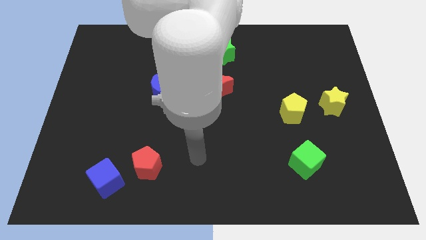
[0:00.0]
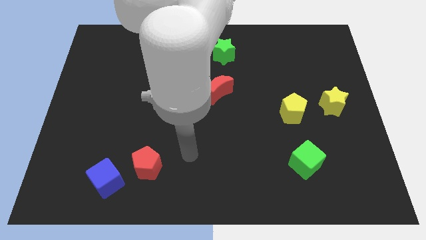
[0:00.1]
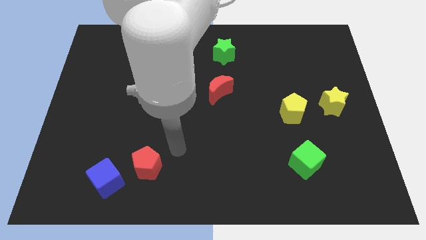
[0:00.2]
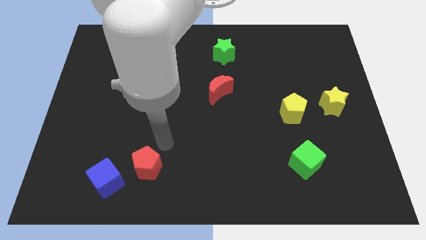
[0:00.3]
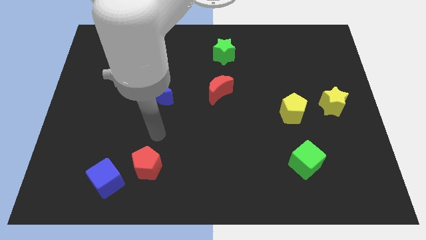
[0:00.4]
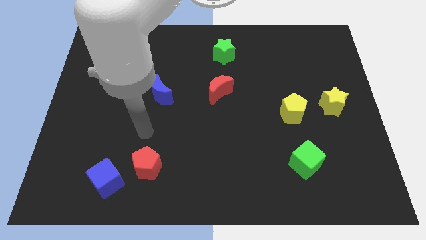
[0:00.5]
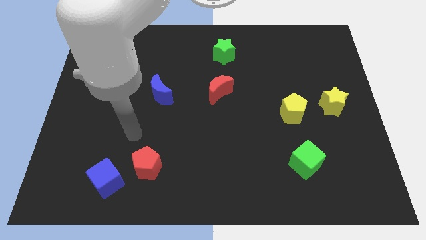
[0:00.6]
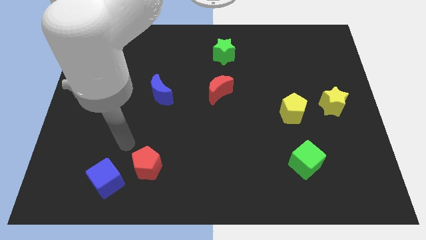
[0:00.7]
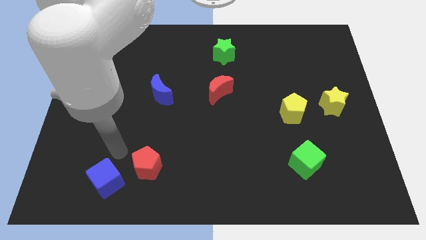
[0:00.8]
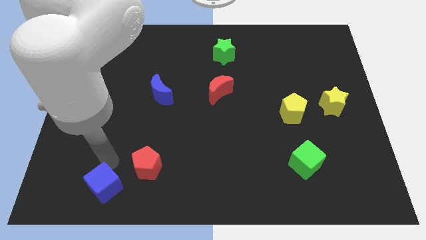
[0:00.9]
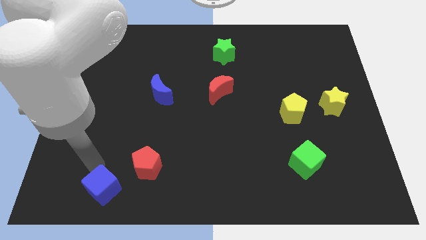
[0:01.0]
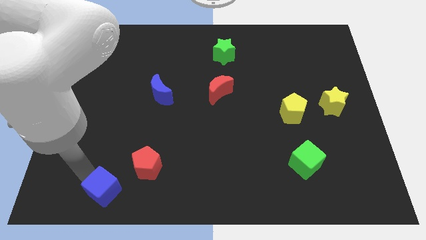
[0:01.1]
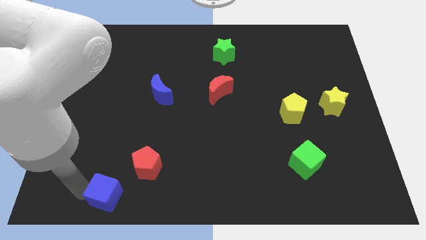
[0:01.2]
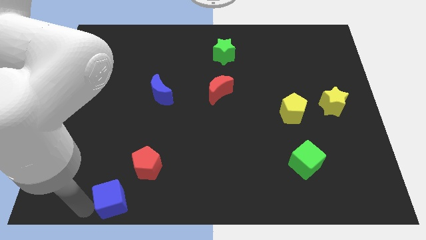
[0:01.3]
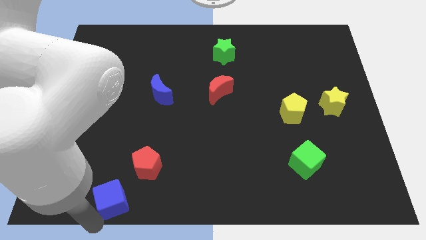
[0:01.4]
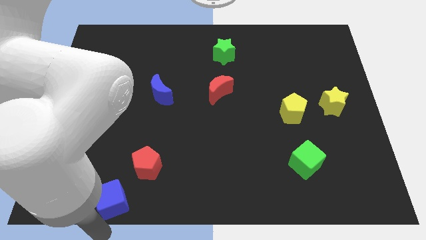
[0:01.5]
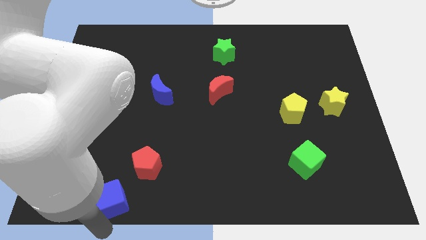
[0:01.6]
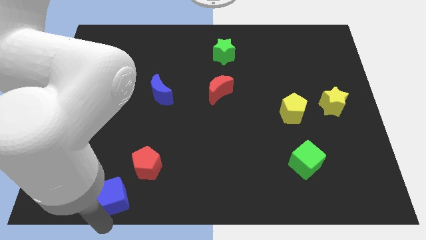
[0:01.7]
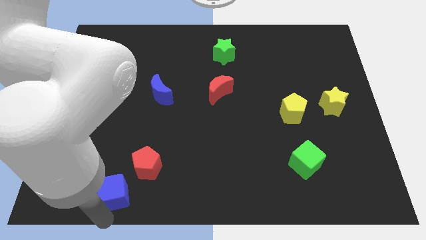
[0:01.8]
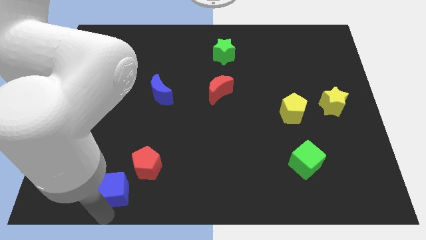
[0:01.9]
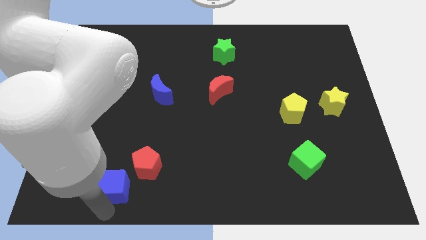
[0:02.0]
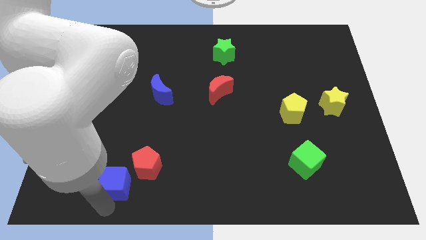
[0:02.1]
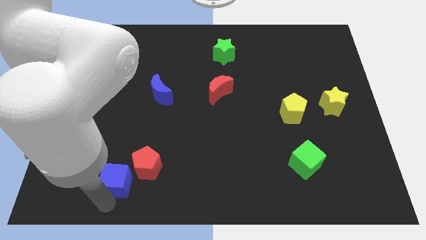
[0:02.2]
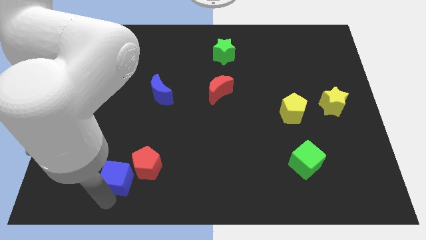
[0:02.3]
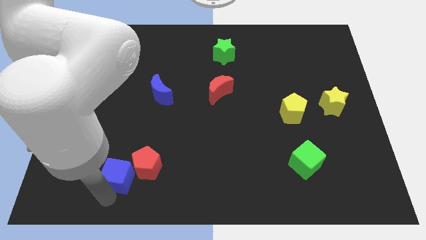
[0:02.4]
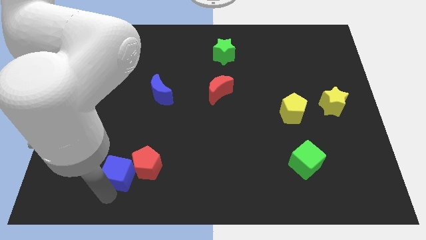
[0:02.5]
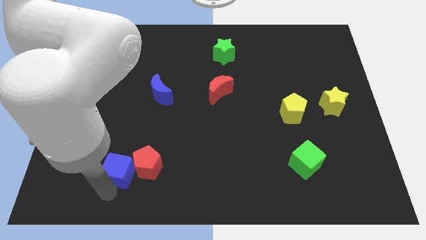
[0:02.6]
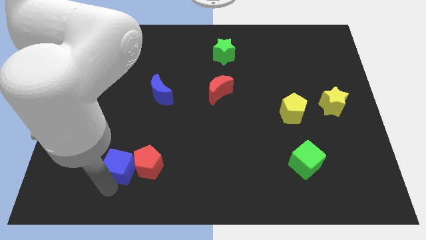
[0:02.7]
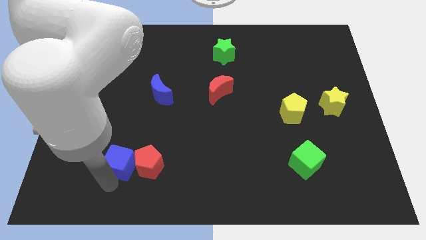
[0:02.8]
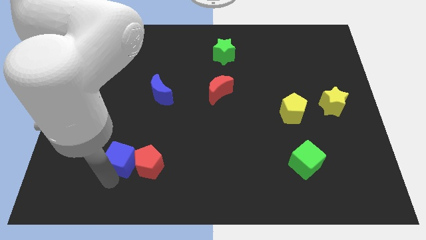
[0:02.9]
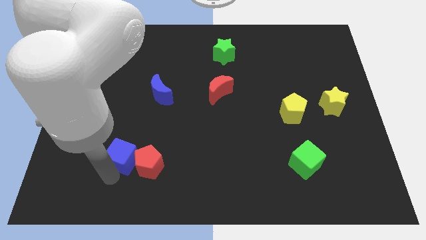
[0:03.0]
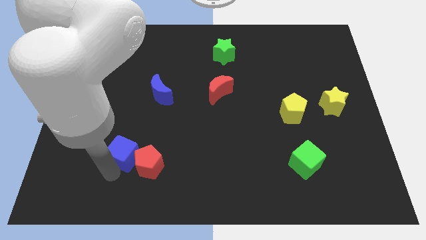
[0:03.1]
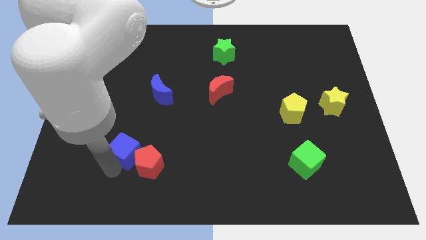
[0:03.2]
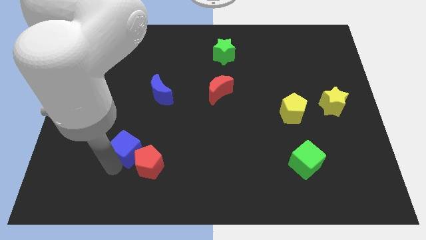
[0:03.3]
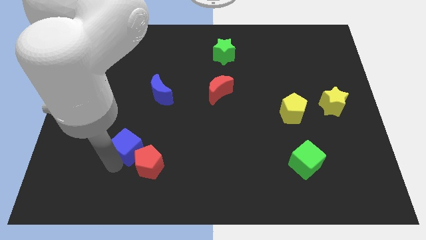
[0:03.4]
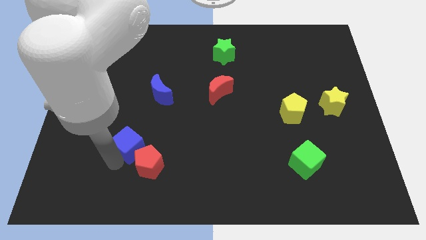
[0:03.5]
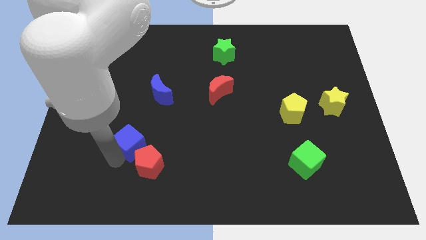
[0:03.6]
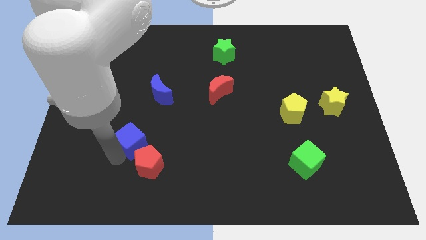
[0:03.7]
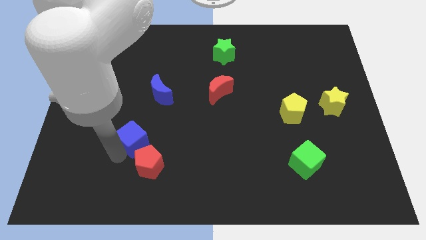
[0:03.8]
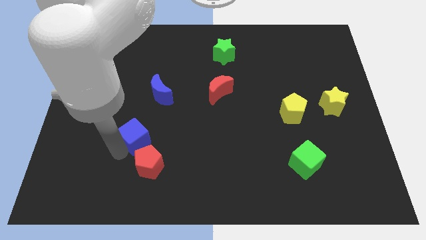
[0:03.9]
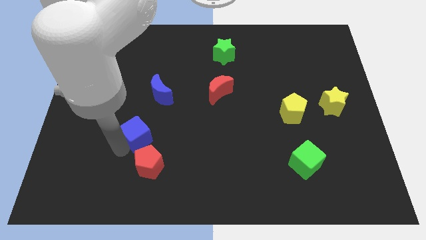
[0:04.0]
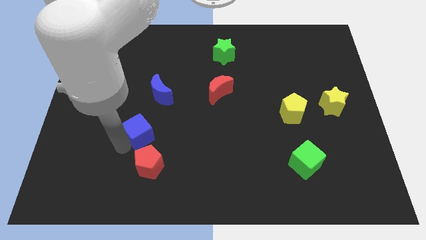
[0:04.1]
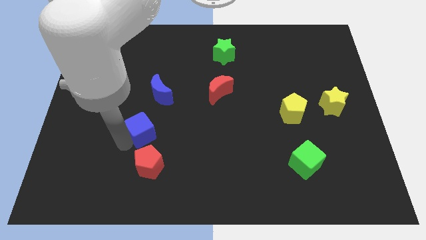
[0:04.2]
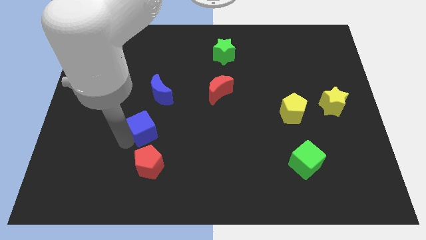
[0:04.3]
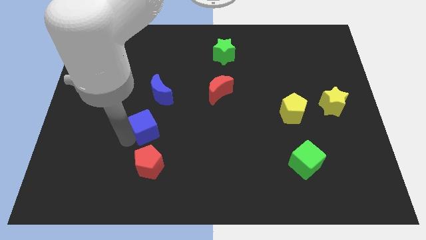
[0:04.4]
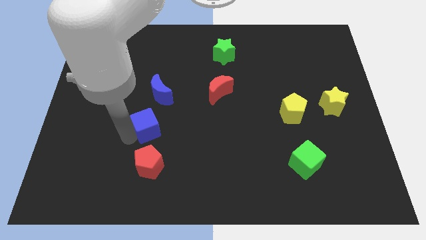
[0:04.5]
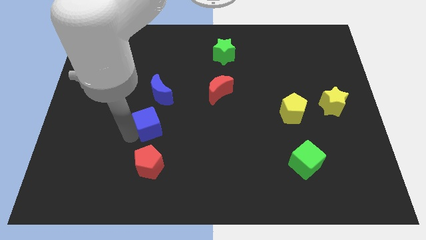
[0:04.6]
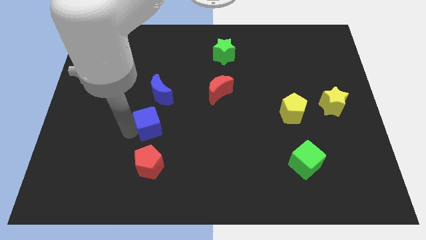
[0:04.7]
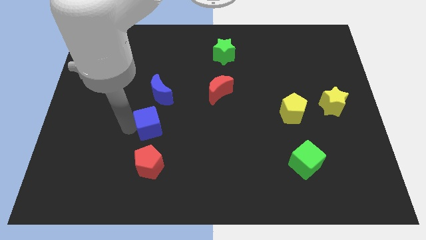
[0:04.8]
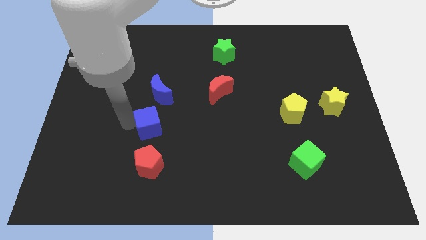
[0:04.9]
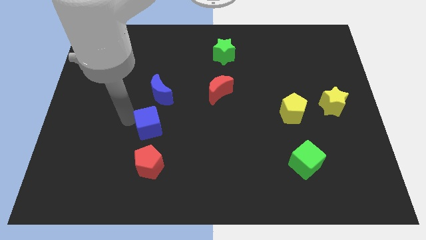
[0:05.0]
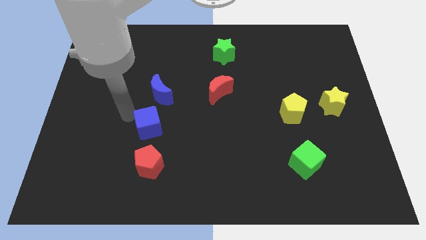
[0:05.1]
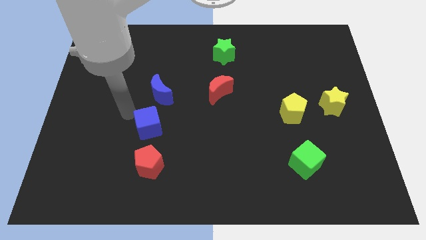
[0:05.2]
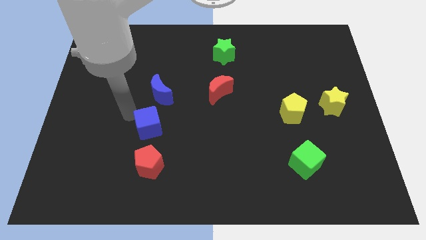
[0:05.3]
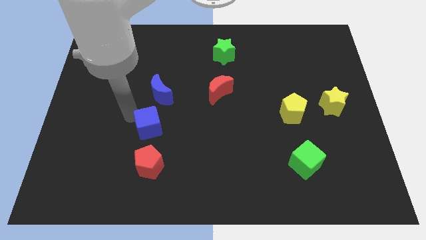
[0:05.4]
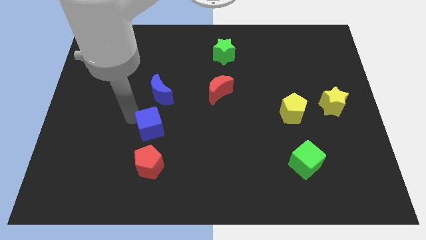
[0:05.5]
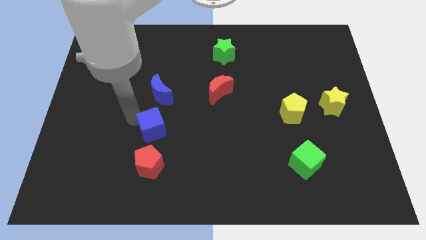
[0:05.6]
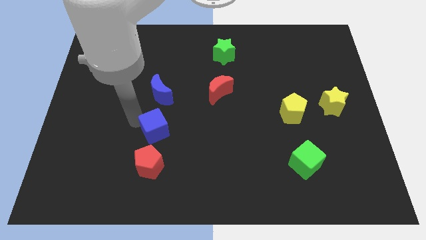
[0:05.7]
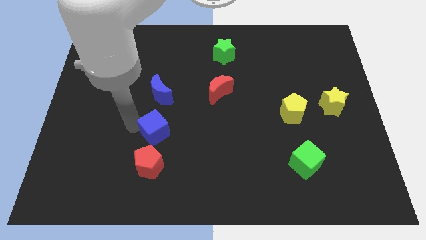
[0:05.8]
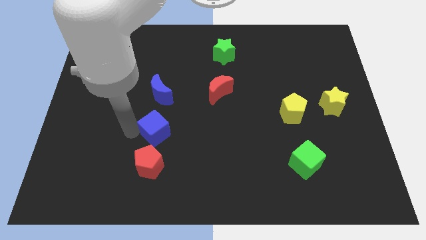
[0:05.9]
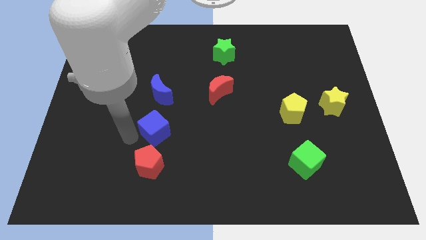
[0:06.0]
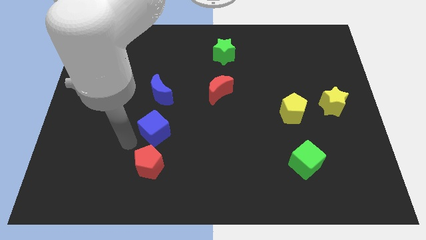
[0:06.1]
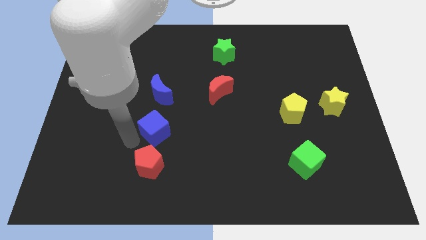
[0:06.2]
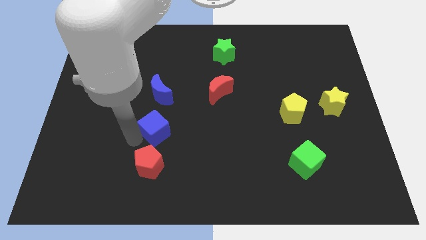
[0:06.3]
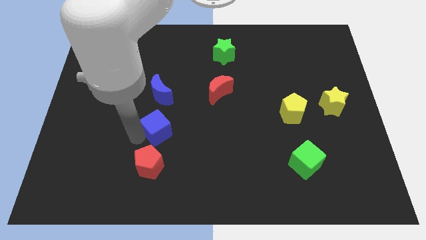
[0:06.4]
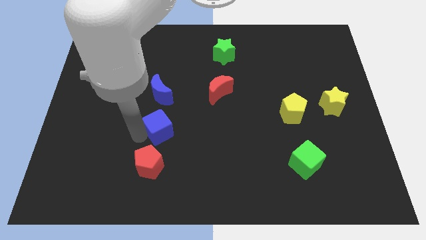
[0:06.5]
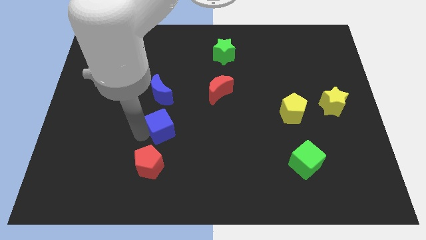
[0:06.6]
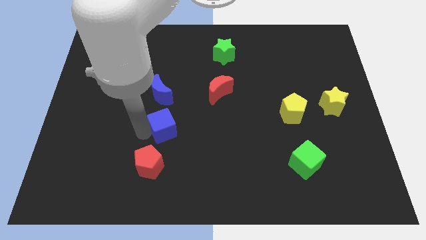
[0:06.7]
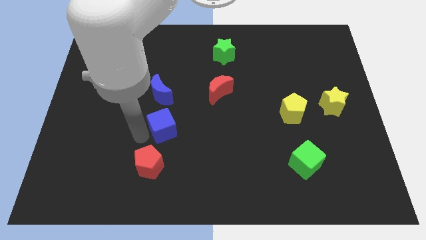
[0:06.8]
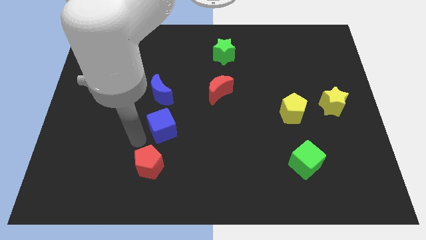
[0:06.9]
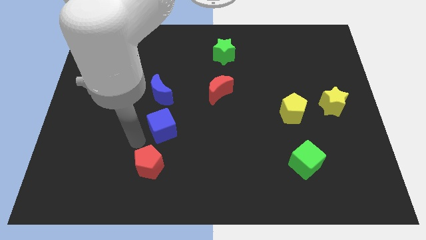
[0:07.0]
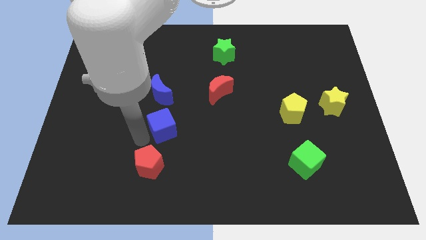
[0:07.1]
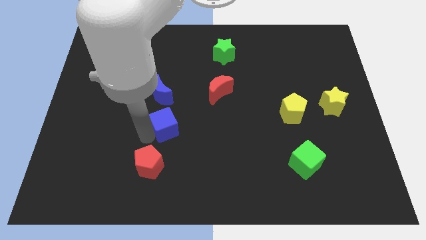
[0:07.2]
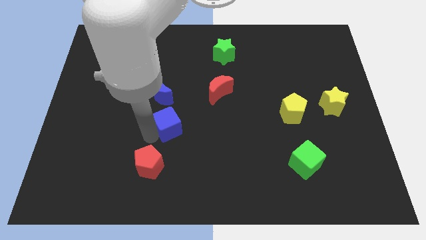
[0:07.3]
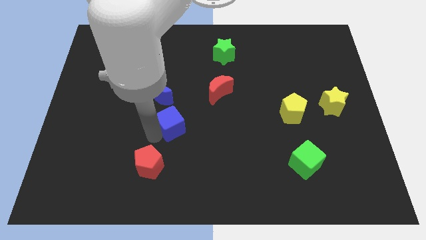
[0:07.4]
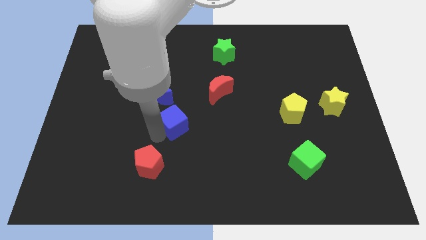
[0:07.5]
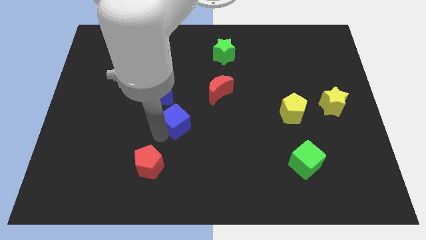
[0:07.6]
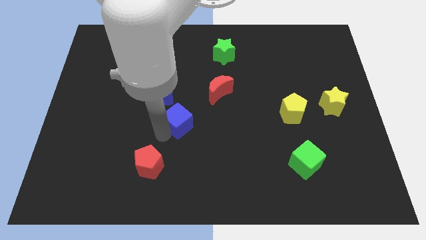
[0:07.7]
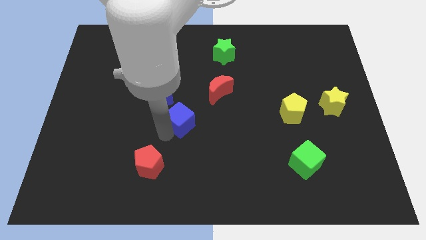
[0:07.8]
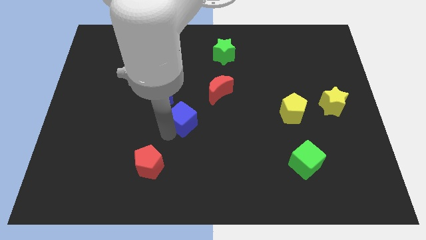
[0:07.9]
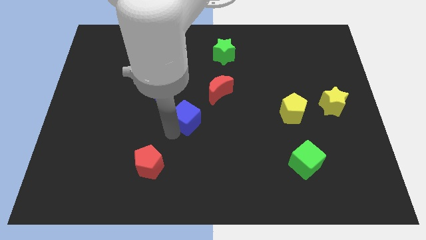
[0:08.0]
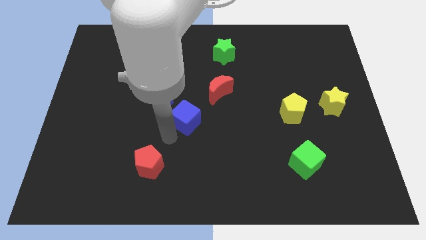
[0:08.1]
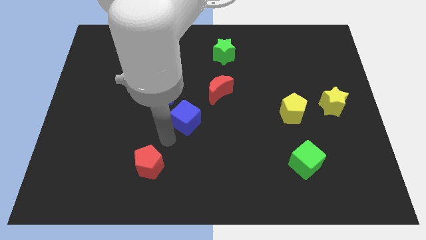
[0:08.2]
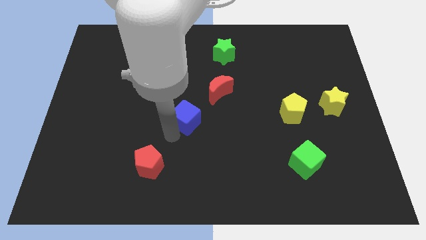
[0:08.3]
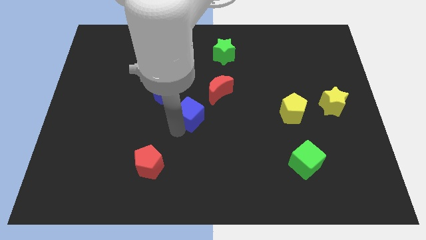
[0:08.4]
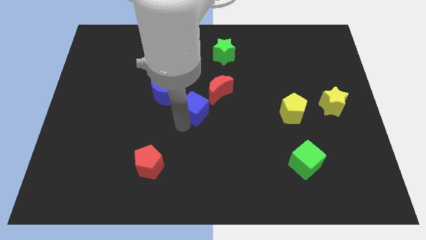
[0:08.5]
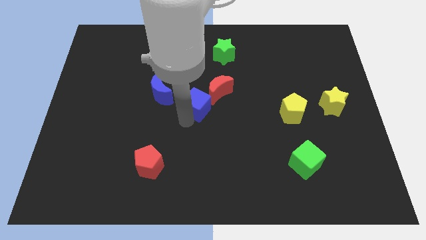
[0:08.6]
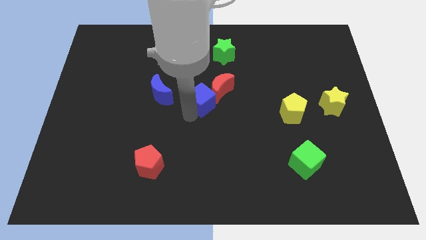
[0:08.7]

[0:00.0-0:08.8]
put the blue cube close to the red moon
